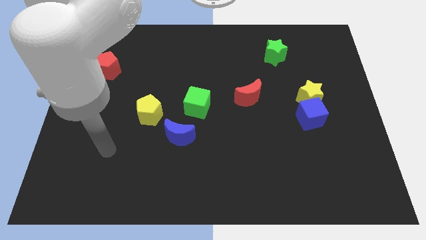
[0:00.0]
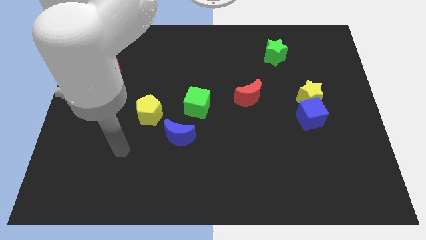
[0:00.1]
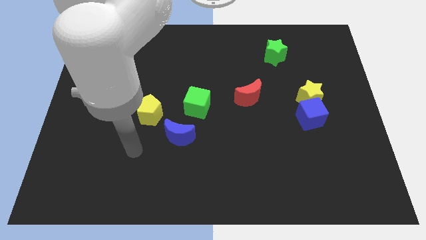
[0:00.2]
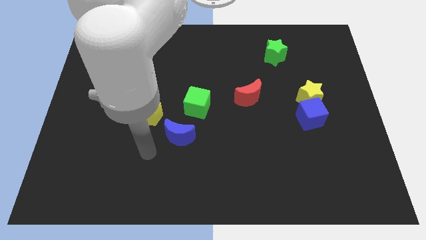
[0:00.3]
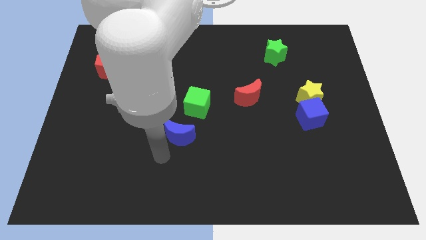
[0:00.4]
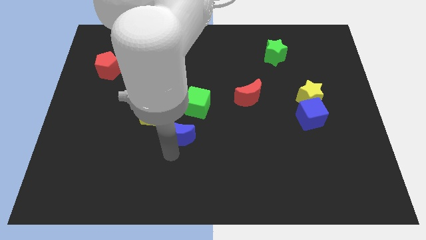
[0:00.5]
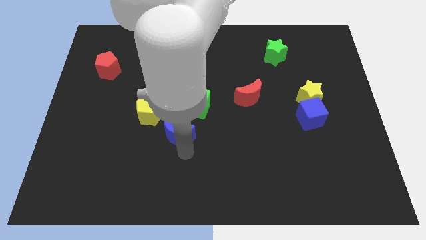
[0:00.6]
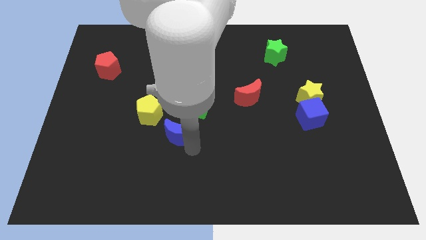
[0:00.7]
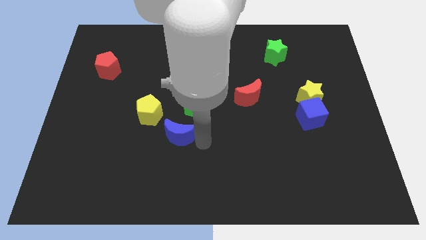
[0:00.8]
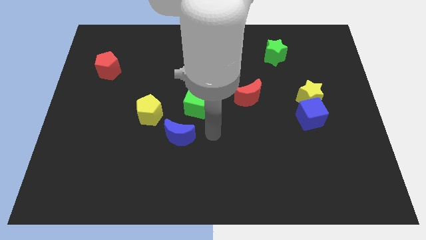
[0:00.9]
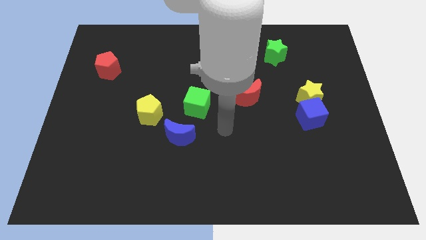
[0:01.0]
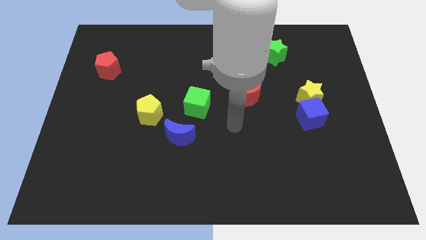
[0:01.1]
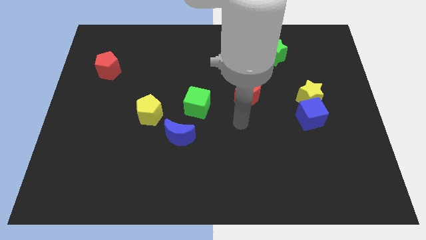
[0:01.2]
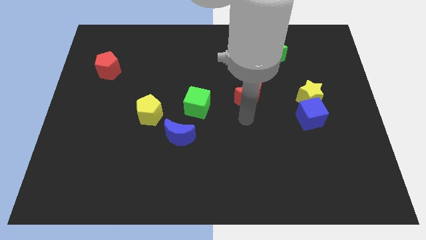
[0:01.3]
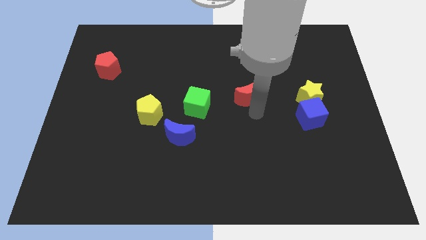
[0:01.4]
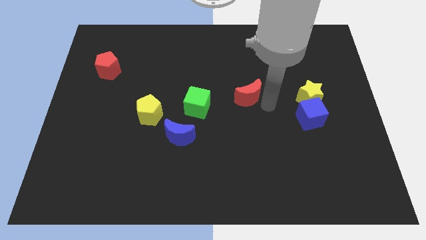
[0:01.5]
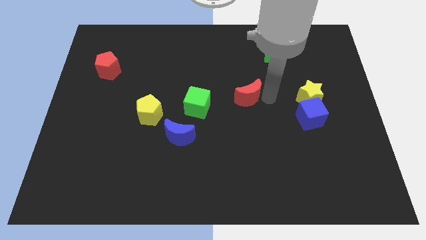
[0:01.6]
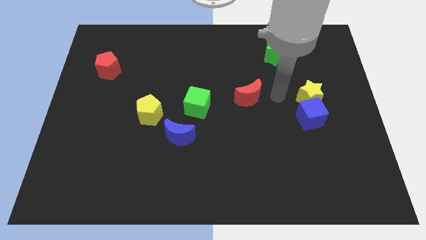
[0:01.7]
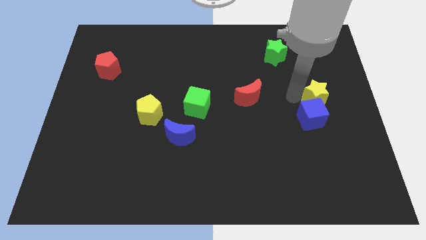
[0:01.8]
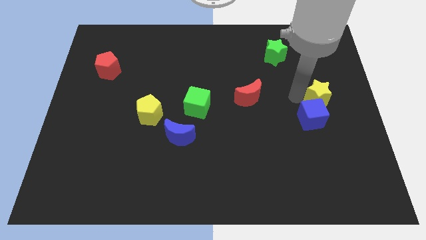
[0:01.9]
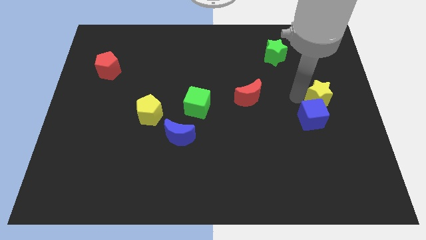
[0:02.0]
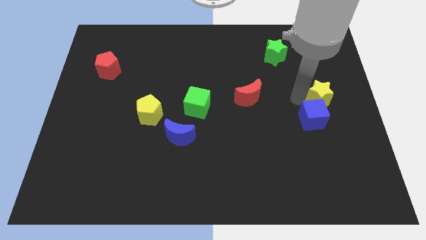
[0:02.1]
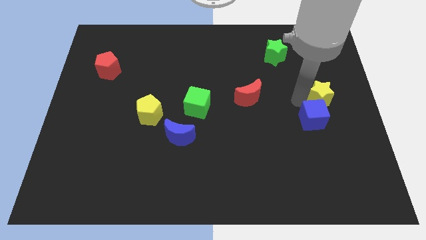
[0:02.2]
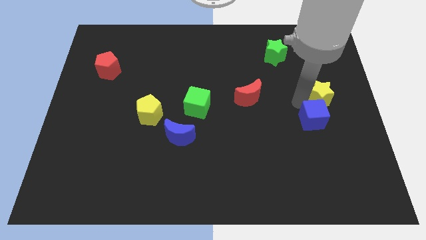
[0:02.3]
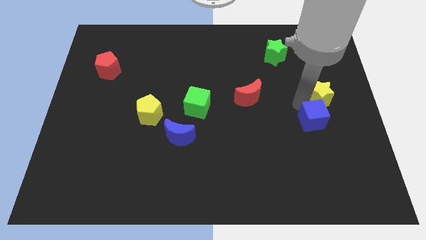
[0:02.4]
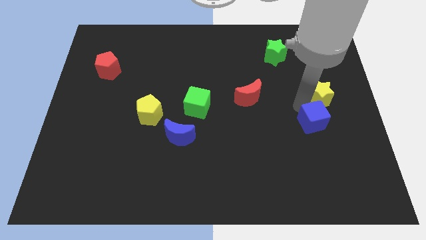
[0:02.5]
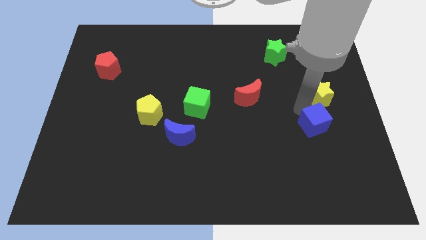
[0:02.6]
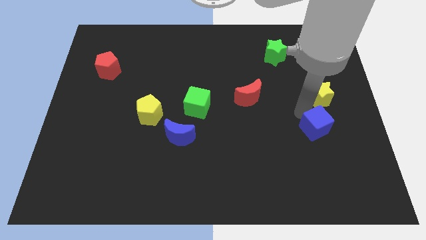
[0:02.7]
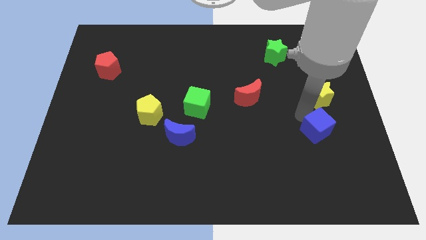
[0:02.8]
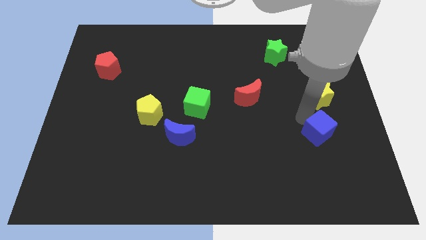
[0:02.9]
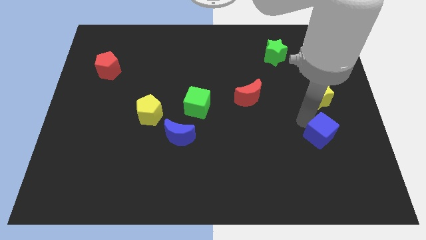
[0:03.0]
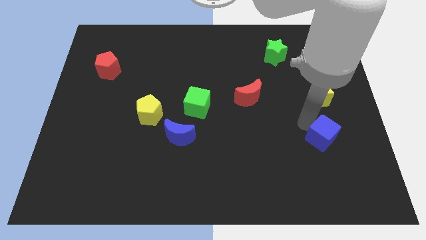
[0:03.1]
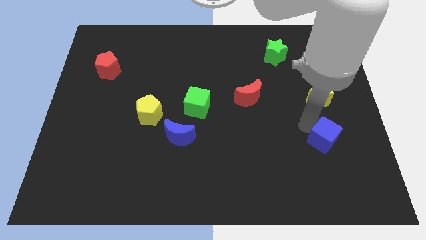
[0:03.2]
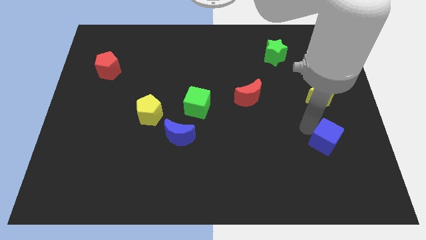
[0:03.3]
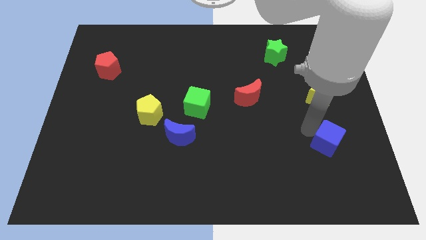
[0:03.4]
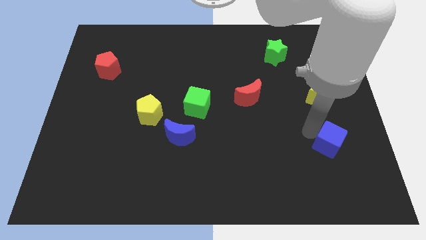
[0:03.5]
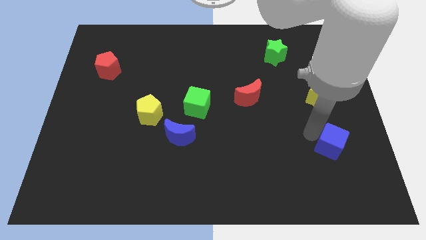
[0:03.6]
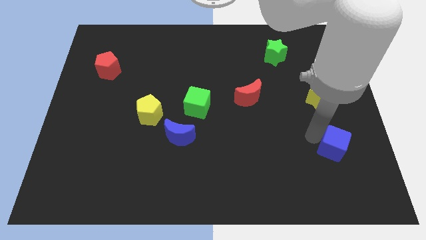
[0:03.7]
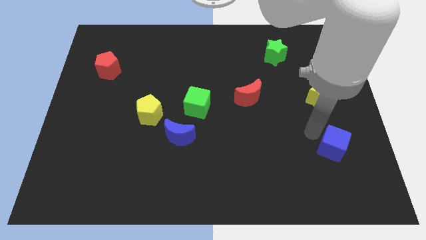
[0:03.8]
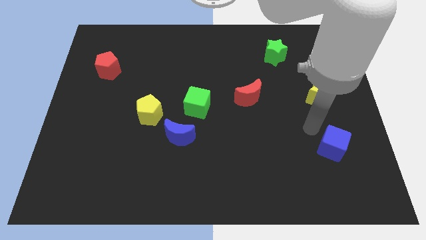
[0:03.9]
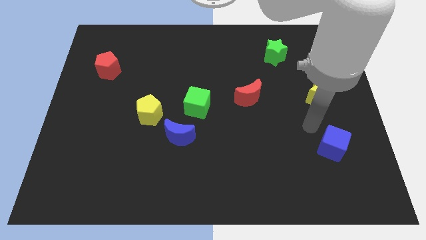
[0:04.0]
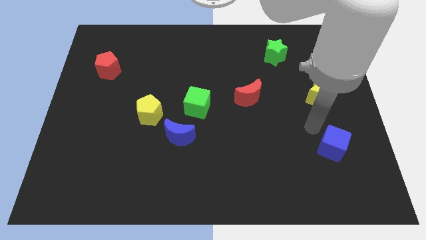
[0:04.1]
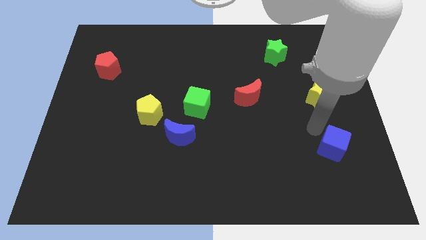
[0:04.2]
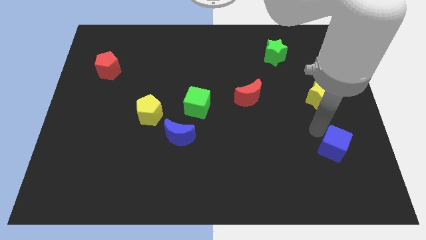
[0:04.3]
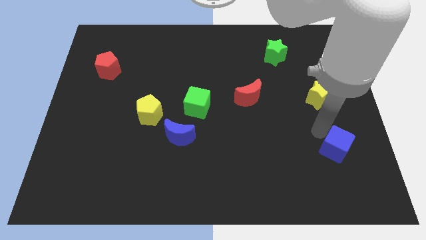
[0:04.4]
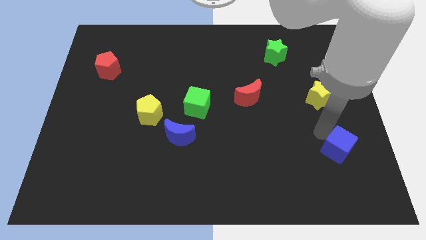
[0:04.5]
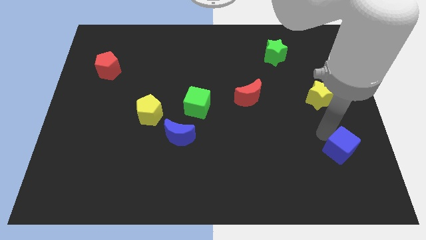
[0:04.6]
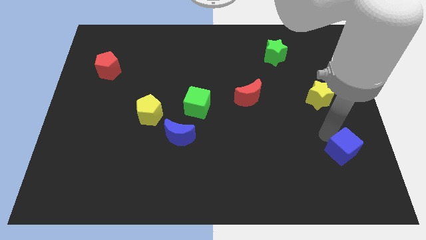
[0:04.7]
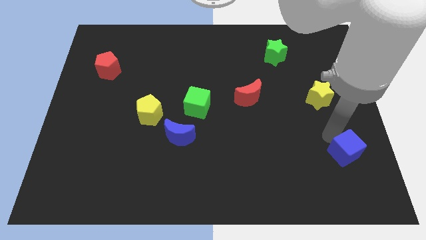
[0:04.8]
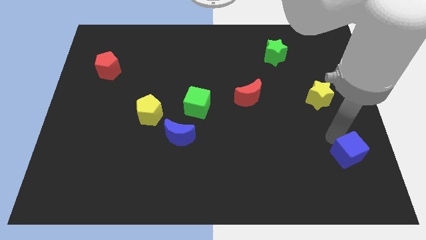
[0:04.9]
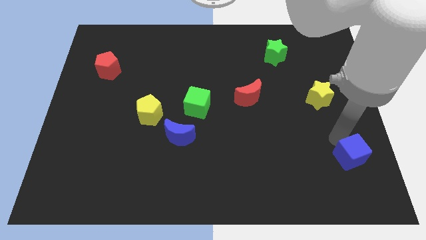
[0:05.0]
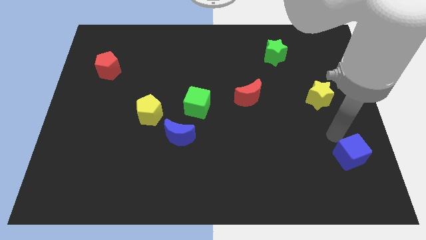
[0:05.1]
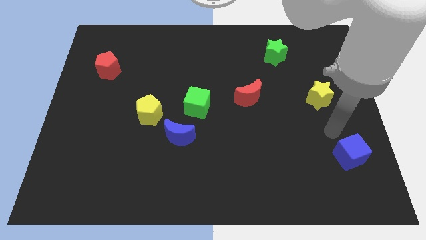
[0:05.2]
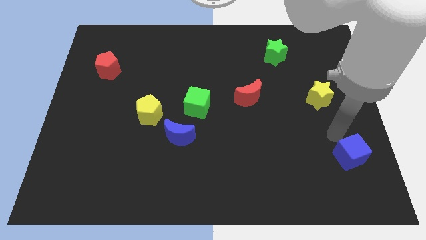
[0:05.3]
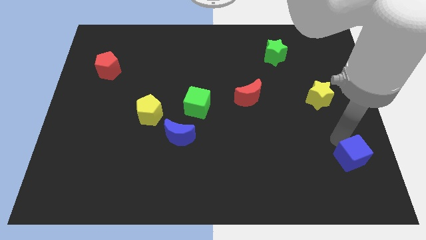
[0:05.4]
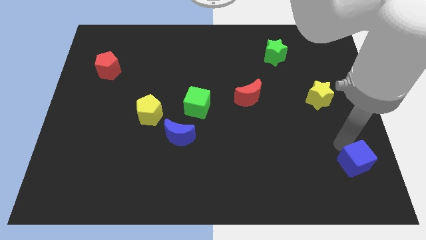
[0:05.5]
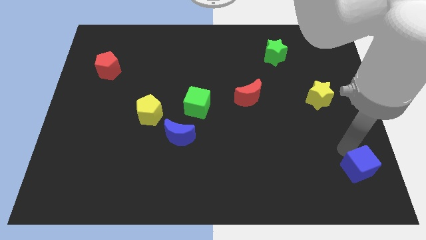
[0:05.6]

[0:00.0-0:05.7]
push the blue cube to the bottom right of the board
